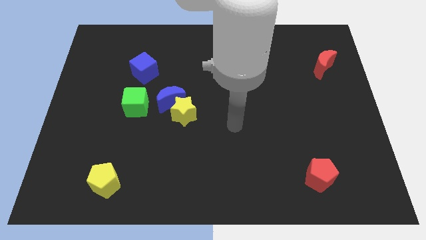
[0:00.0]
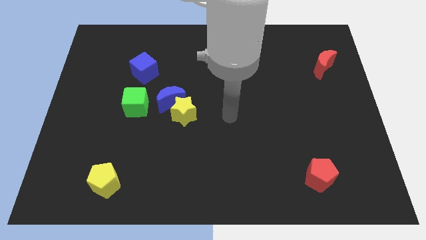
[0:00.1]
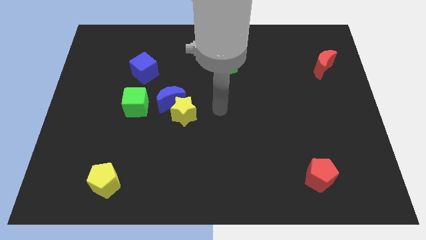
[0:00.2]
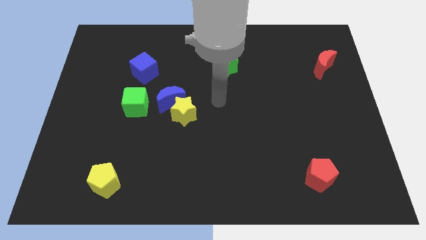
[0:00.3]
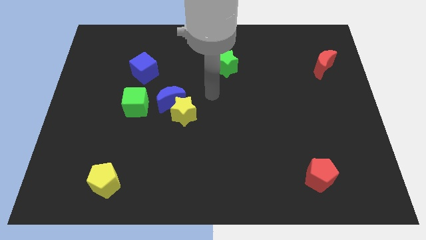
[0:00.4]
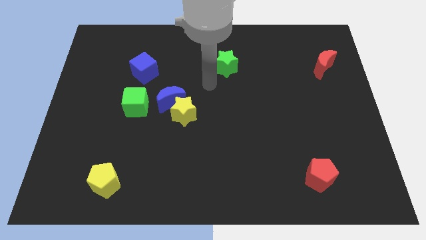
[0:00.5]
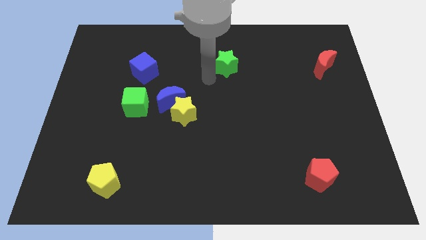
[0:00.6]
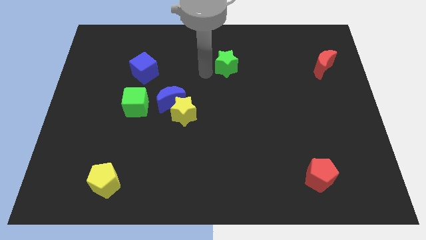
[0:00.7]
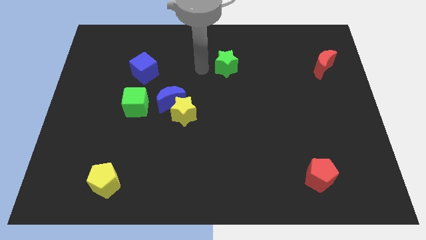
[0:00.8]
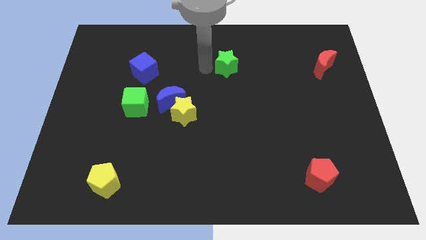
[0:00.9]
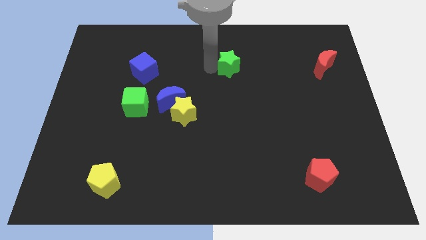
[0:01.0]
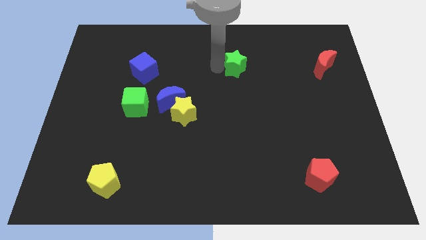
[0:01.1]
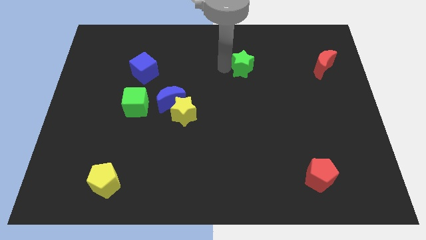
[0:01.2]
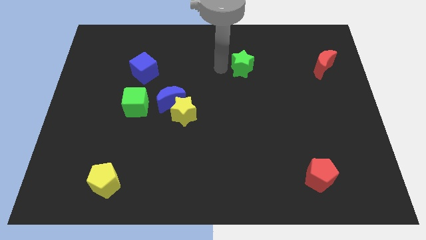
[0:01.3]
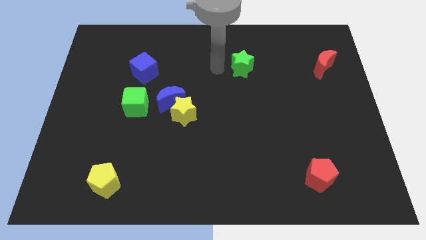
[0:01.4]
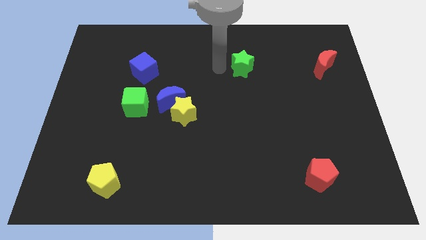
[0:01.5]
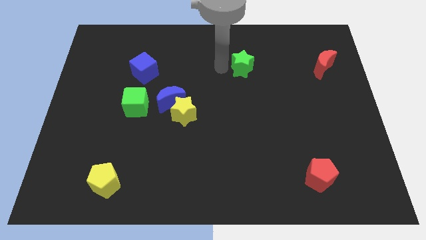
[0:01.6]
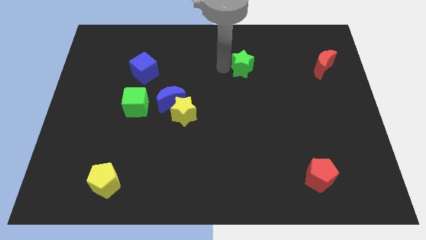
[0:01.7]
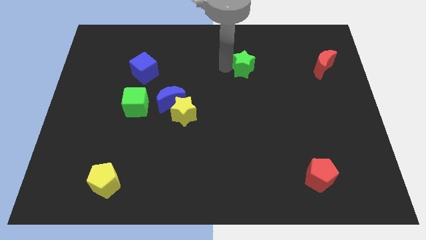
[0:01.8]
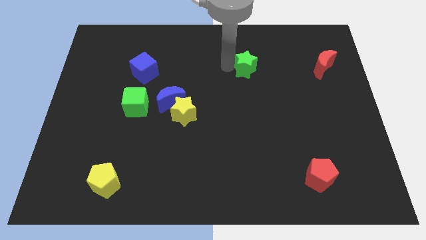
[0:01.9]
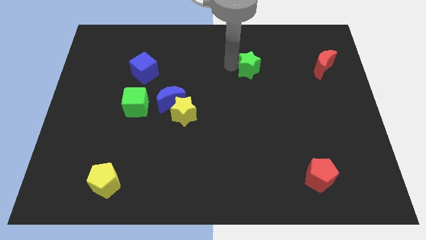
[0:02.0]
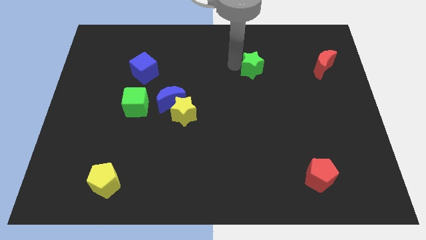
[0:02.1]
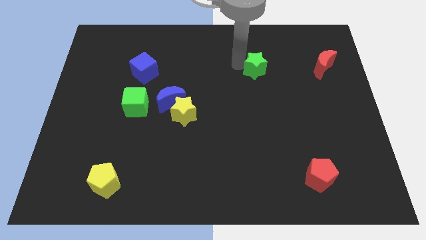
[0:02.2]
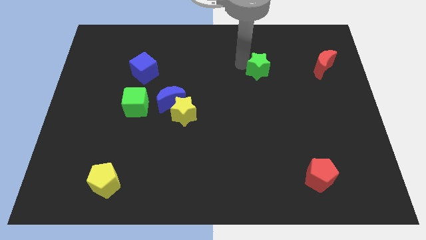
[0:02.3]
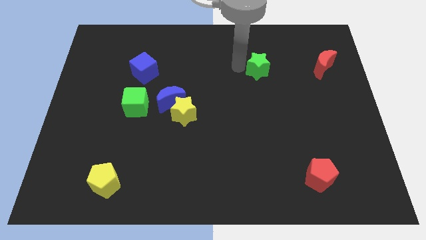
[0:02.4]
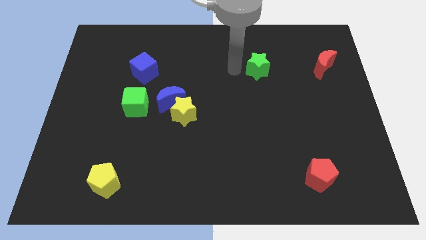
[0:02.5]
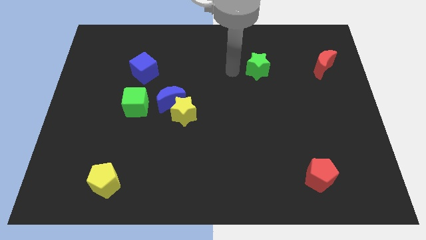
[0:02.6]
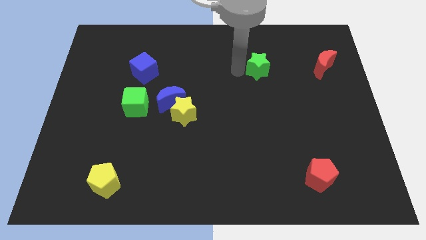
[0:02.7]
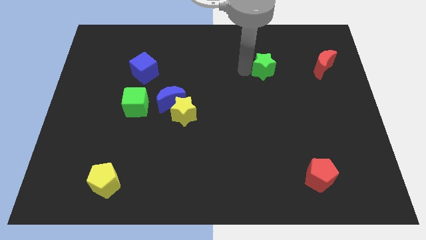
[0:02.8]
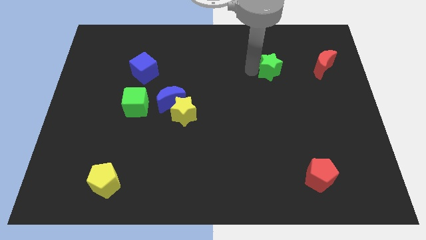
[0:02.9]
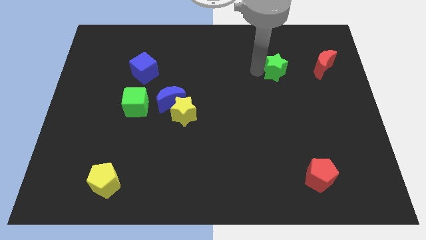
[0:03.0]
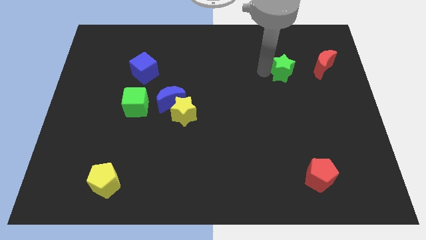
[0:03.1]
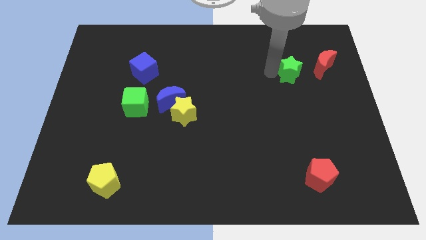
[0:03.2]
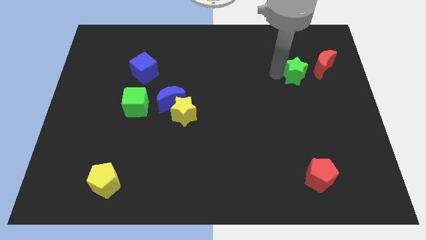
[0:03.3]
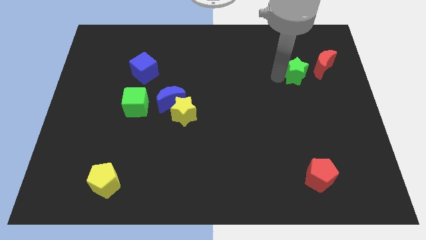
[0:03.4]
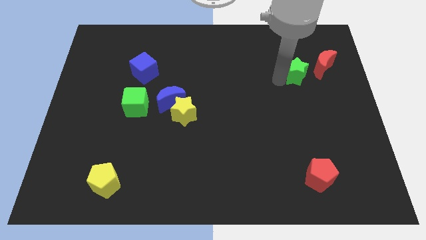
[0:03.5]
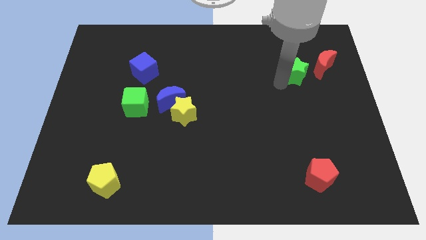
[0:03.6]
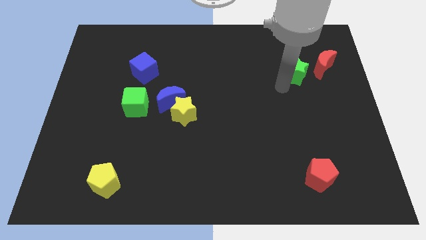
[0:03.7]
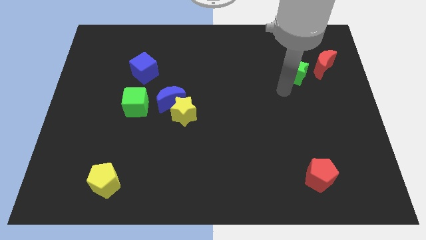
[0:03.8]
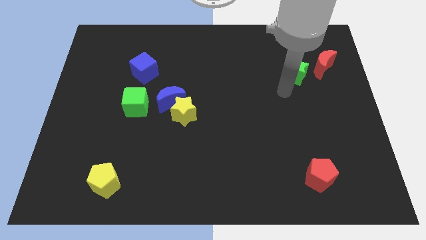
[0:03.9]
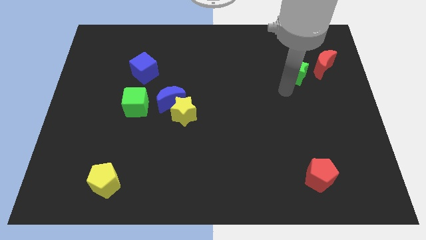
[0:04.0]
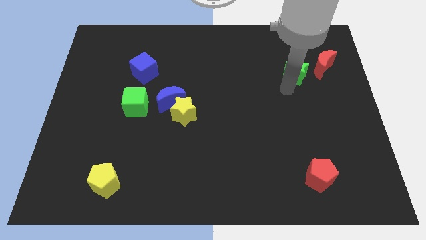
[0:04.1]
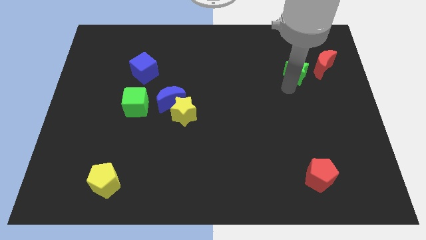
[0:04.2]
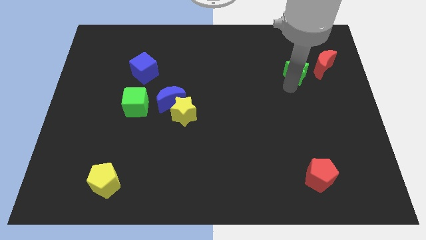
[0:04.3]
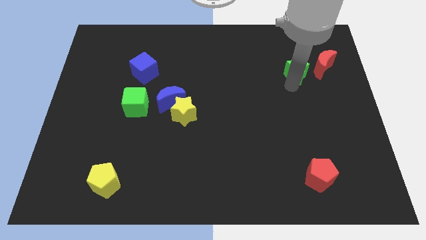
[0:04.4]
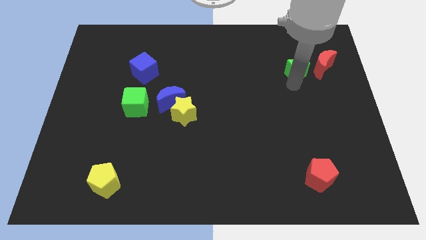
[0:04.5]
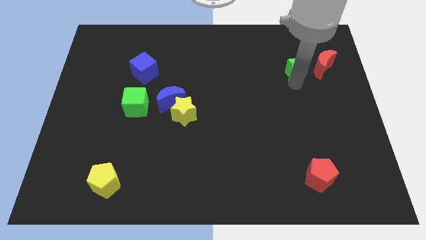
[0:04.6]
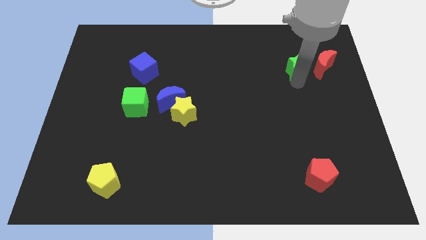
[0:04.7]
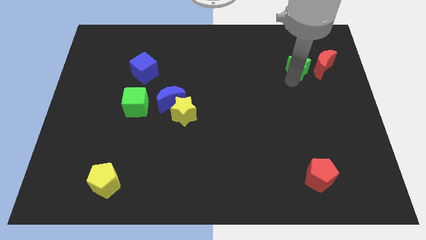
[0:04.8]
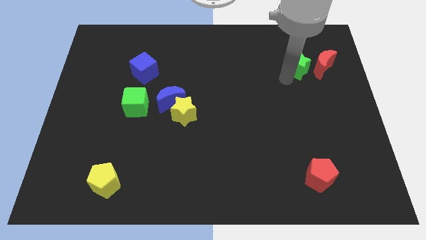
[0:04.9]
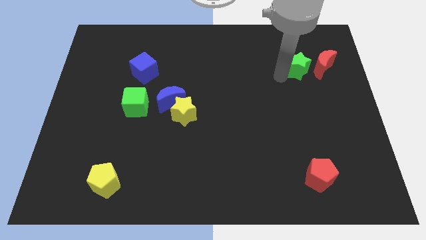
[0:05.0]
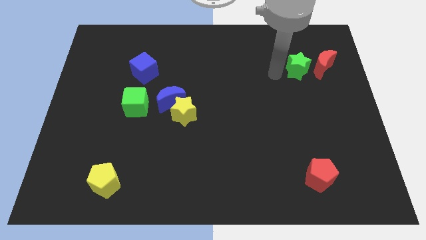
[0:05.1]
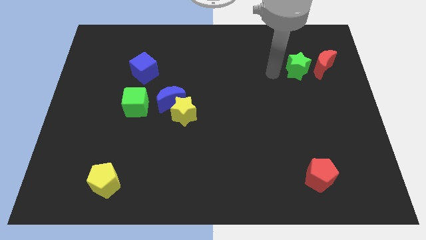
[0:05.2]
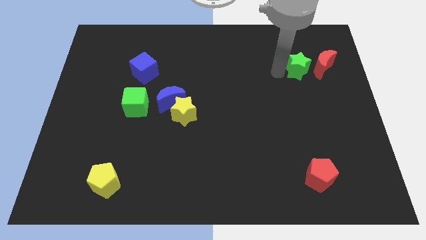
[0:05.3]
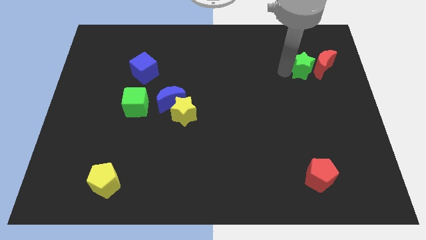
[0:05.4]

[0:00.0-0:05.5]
move the green star close to the red moon

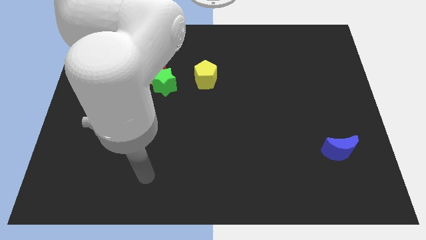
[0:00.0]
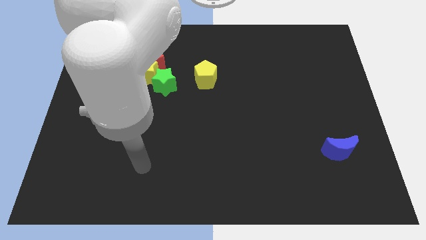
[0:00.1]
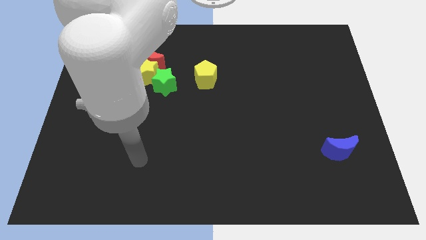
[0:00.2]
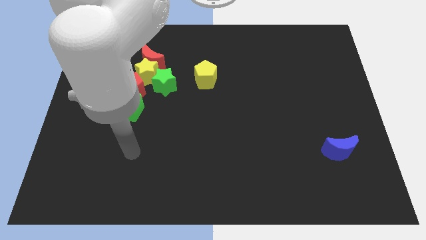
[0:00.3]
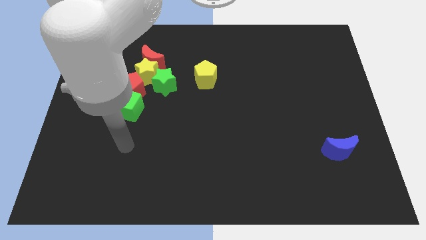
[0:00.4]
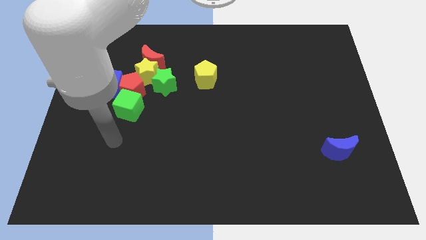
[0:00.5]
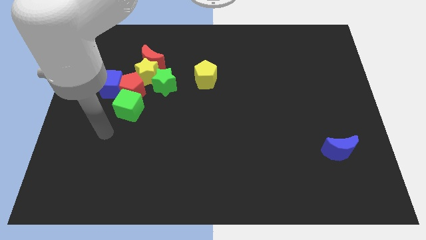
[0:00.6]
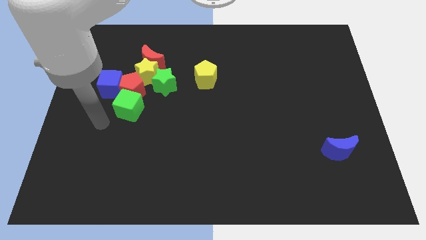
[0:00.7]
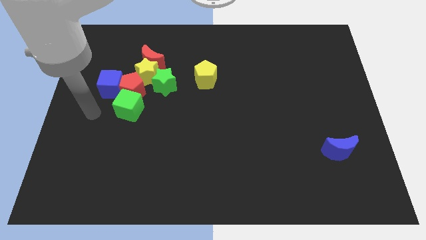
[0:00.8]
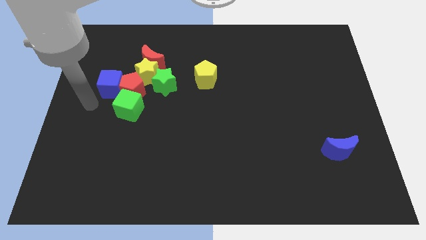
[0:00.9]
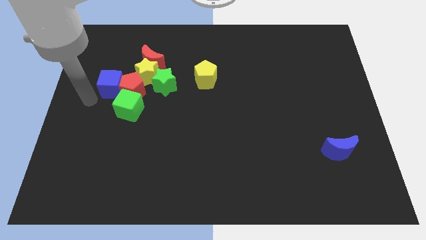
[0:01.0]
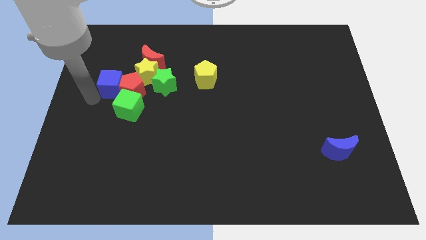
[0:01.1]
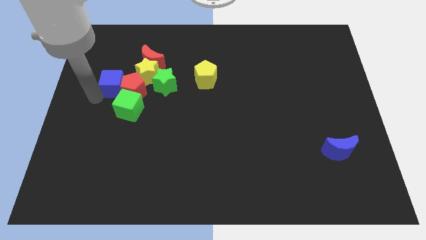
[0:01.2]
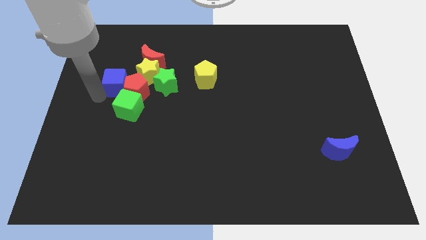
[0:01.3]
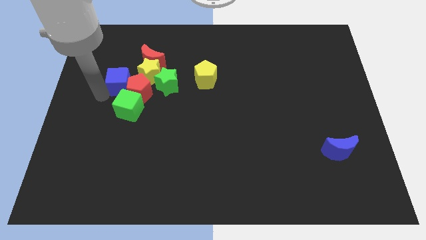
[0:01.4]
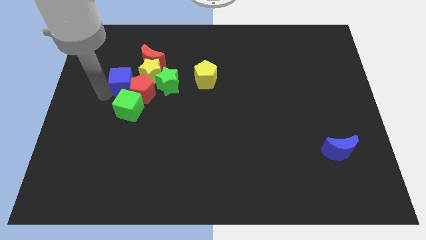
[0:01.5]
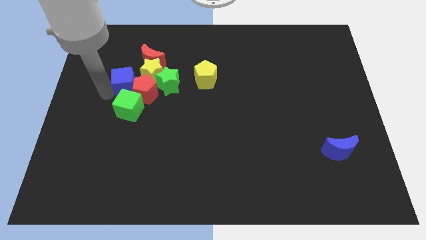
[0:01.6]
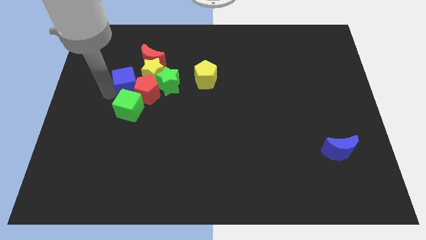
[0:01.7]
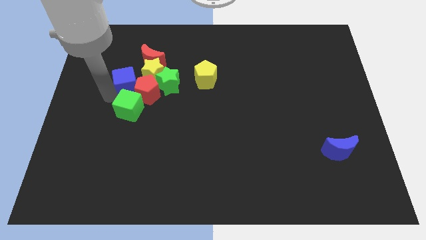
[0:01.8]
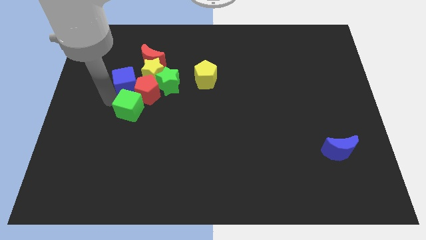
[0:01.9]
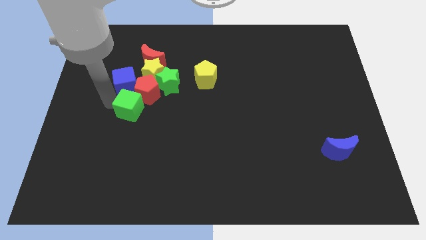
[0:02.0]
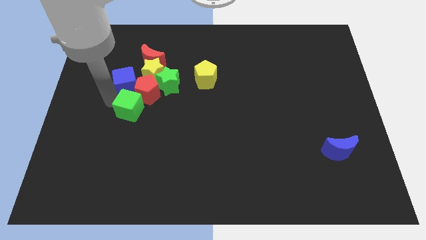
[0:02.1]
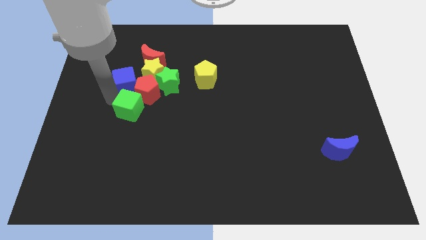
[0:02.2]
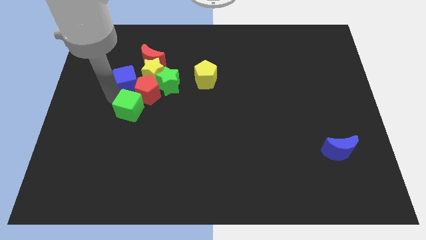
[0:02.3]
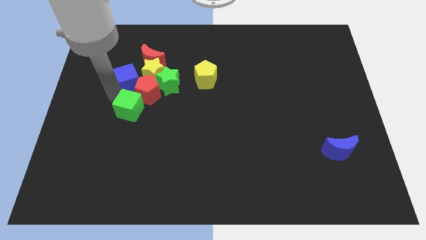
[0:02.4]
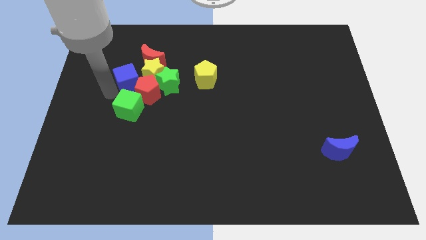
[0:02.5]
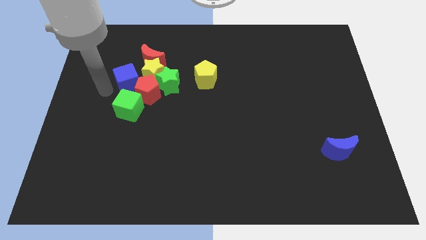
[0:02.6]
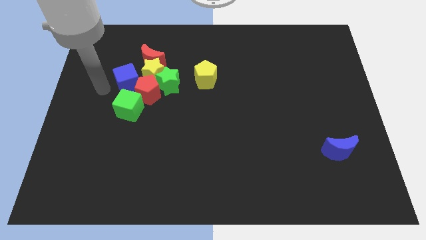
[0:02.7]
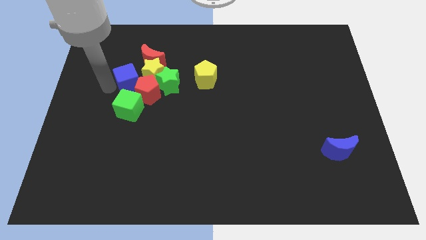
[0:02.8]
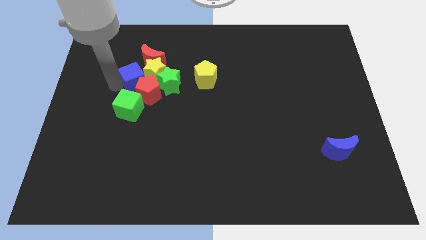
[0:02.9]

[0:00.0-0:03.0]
slide the blue cube to the yellow star
